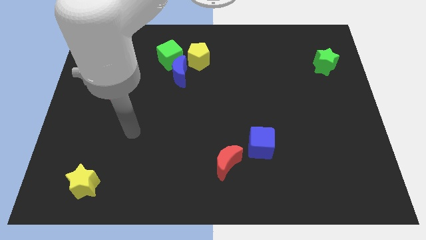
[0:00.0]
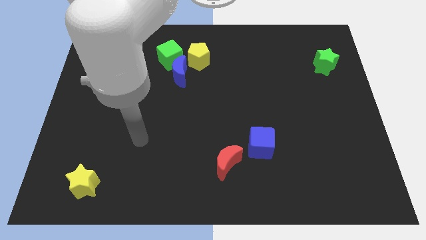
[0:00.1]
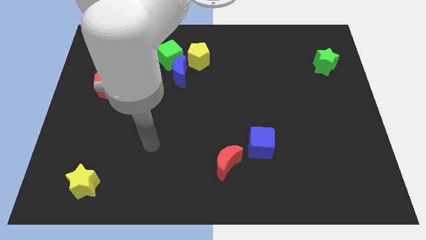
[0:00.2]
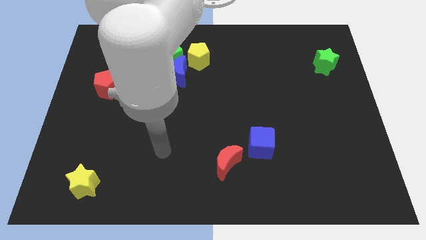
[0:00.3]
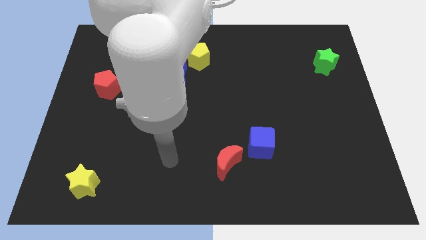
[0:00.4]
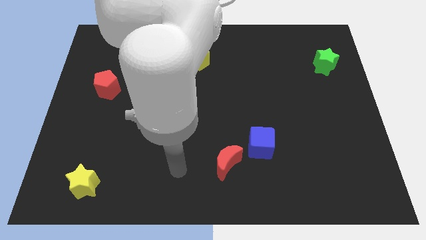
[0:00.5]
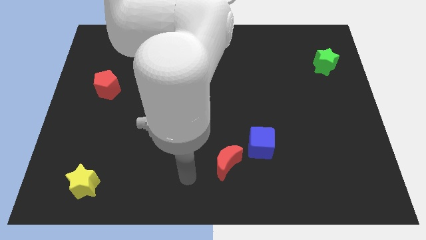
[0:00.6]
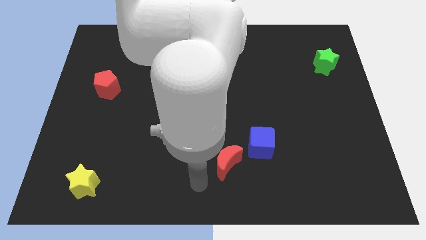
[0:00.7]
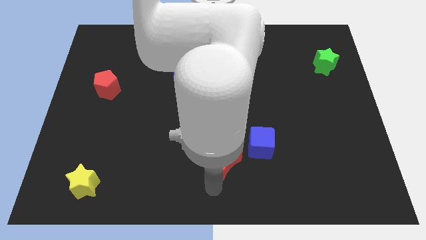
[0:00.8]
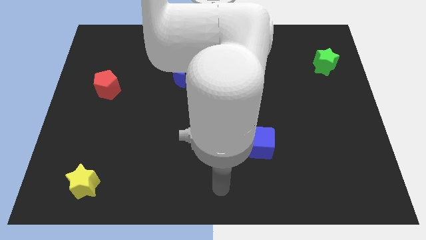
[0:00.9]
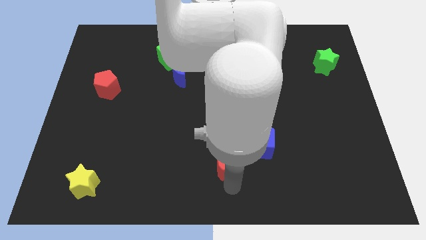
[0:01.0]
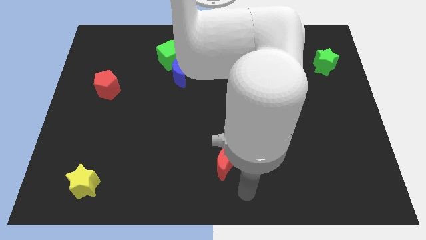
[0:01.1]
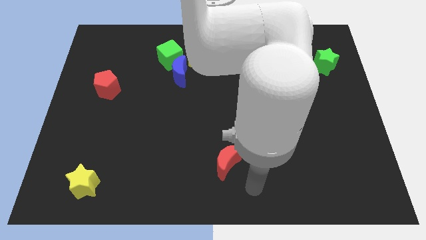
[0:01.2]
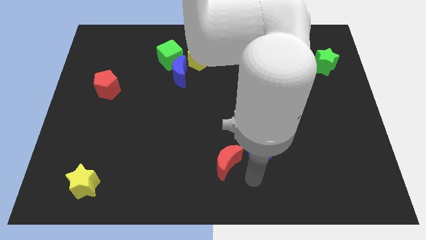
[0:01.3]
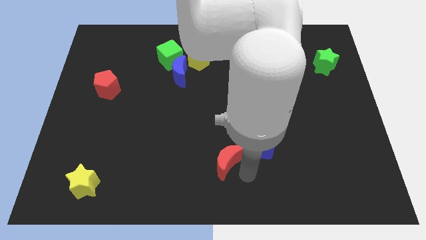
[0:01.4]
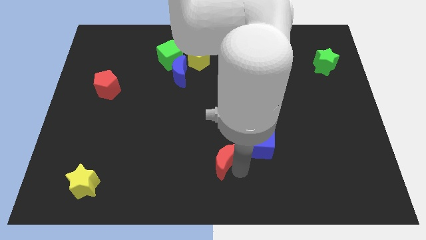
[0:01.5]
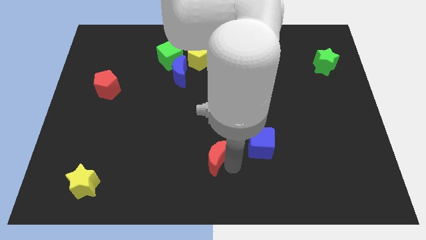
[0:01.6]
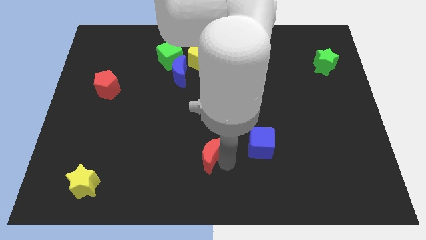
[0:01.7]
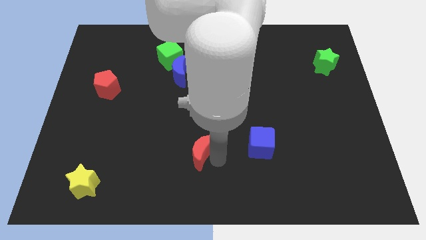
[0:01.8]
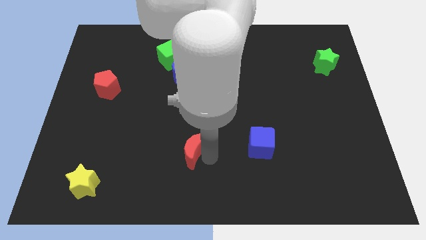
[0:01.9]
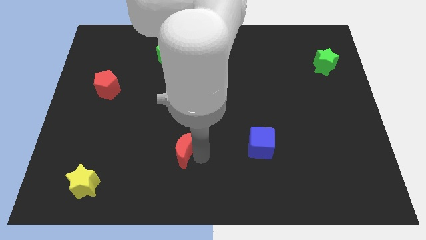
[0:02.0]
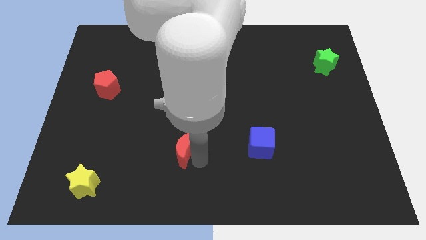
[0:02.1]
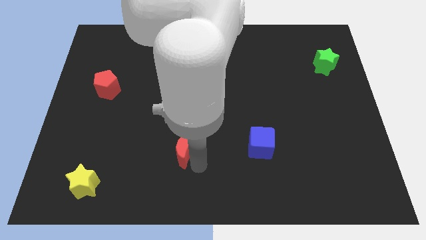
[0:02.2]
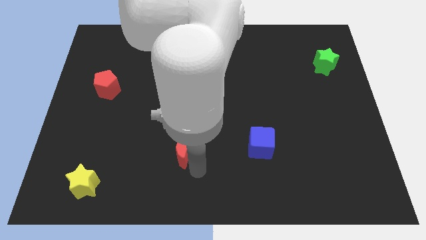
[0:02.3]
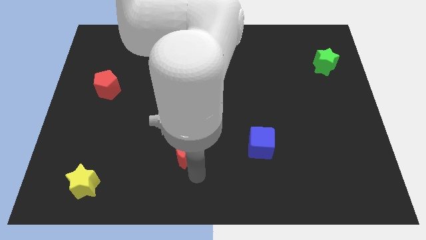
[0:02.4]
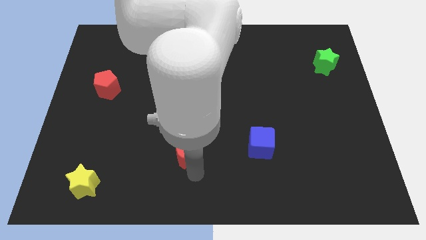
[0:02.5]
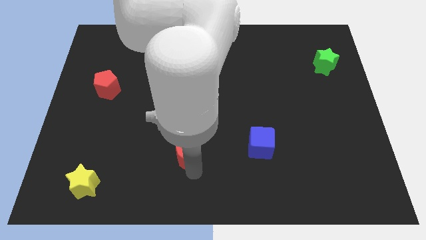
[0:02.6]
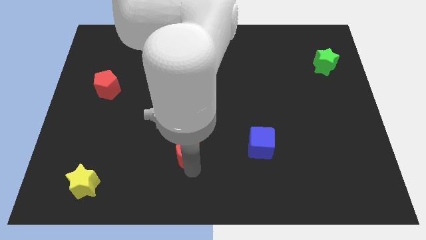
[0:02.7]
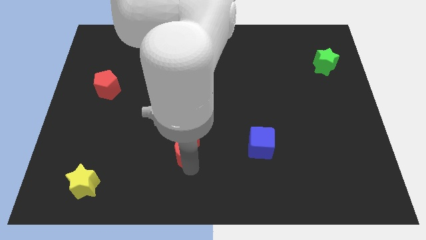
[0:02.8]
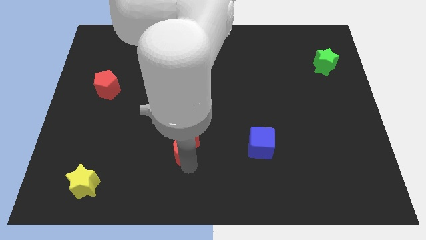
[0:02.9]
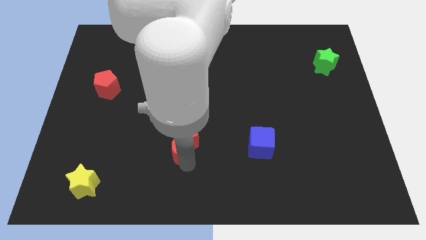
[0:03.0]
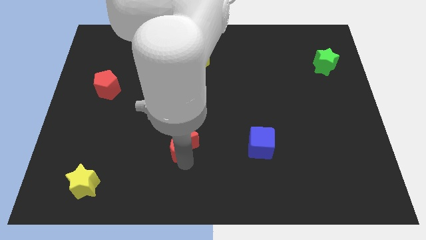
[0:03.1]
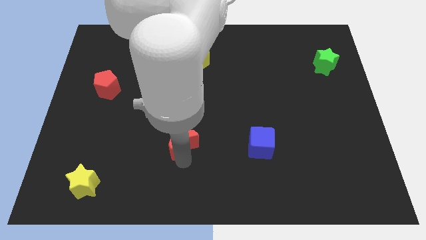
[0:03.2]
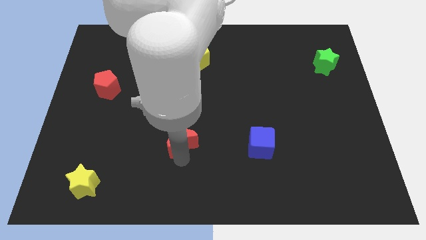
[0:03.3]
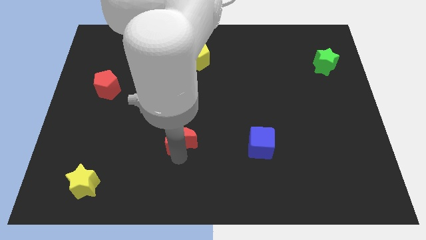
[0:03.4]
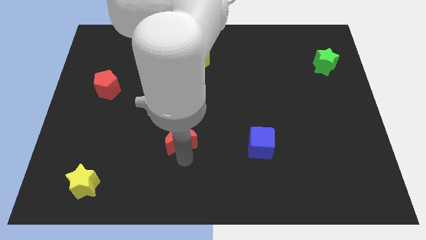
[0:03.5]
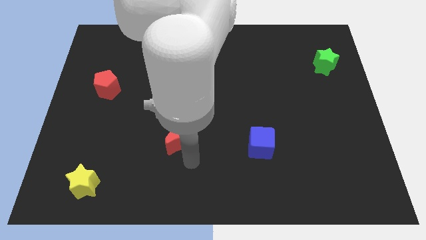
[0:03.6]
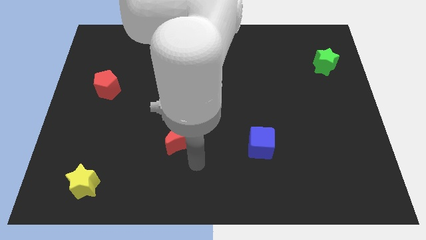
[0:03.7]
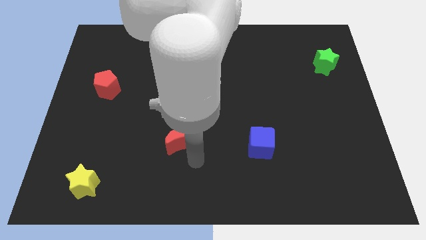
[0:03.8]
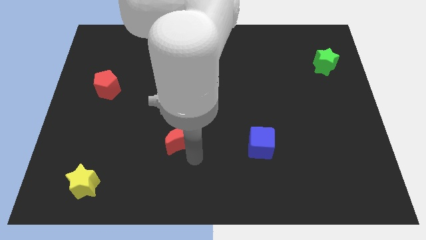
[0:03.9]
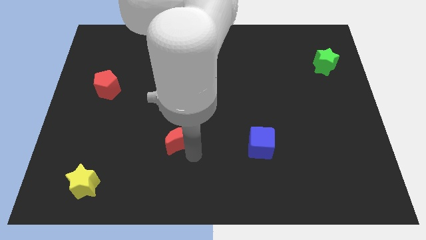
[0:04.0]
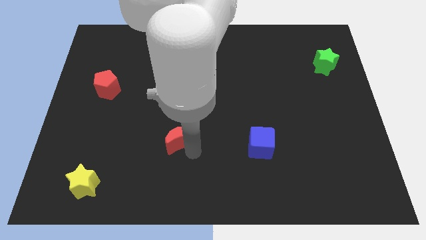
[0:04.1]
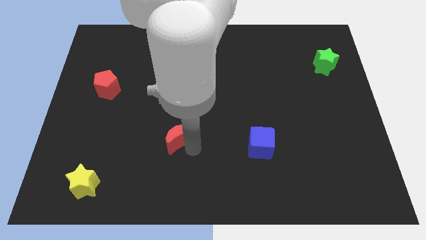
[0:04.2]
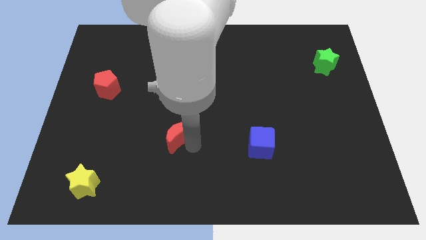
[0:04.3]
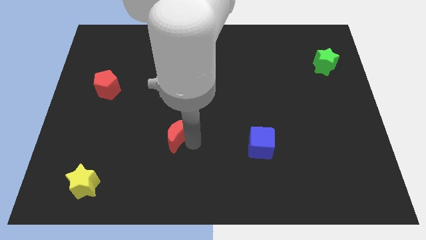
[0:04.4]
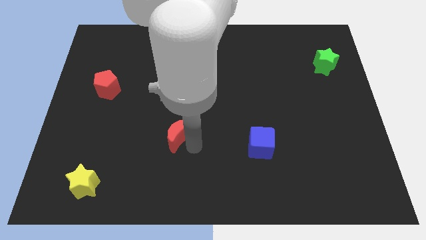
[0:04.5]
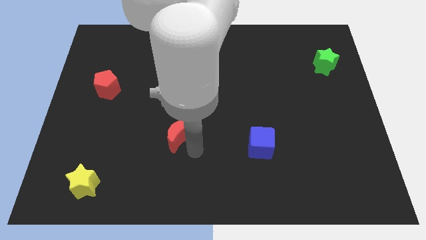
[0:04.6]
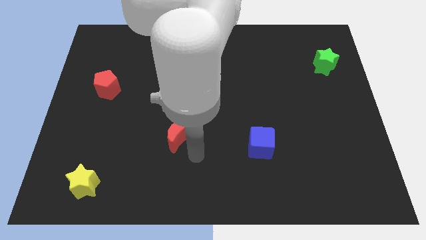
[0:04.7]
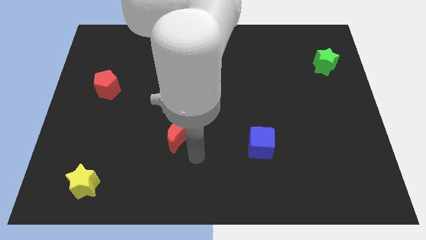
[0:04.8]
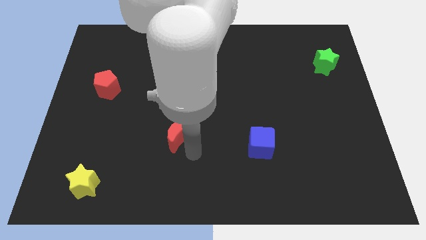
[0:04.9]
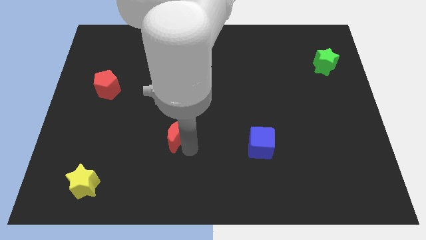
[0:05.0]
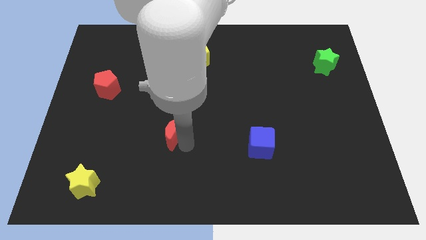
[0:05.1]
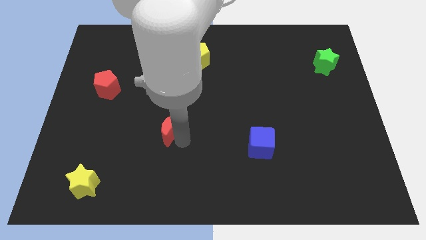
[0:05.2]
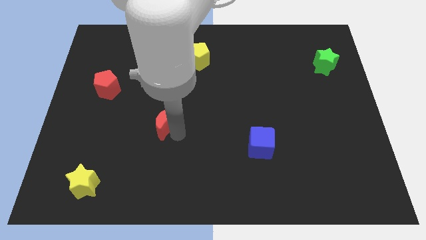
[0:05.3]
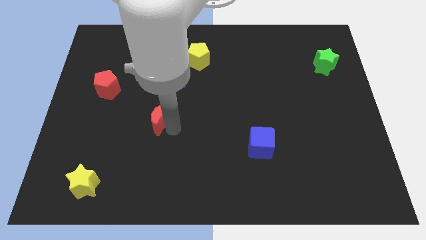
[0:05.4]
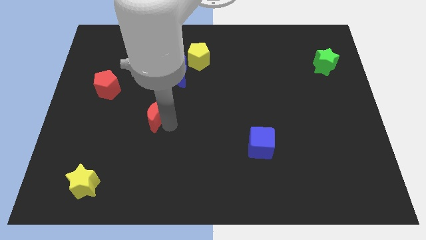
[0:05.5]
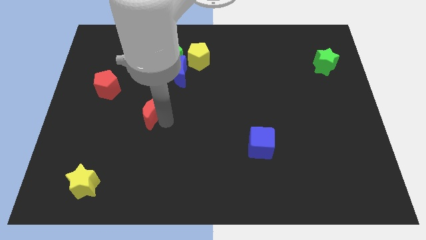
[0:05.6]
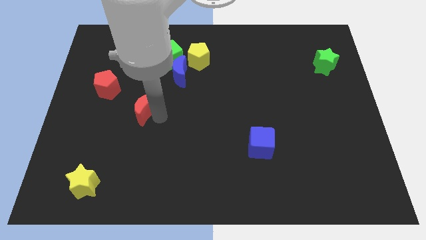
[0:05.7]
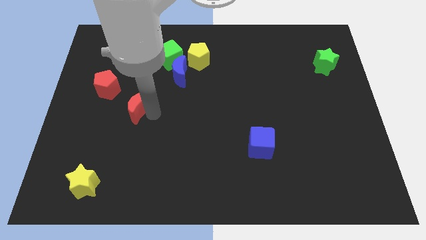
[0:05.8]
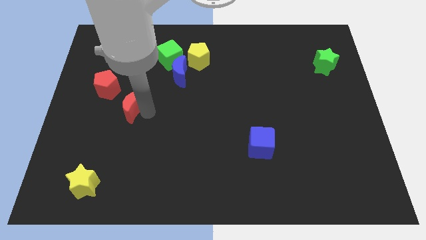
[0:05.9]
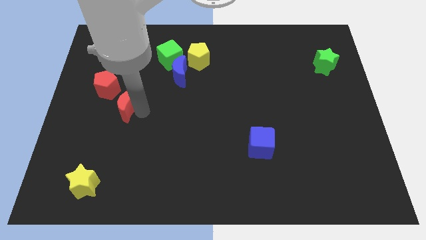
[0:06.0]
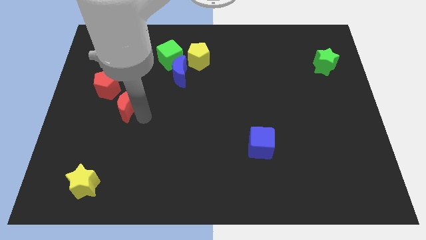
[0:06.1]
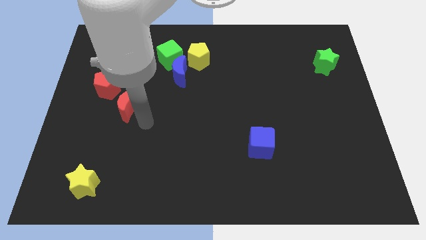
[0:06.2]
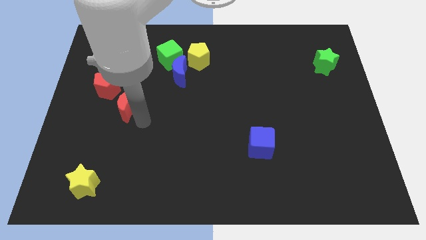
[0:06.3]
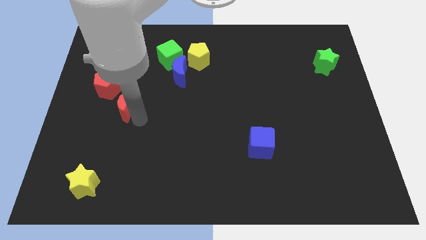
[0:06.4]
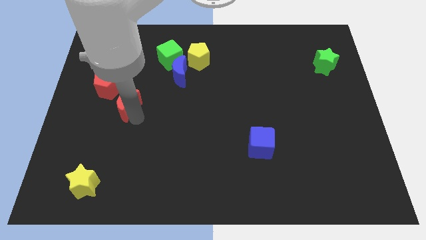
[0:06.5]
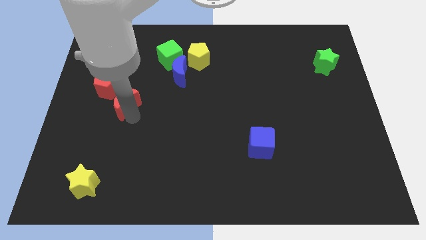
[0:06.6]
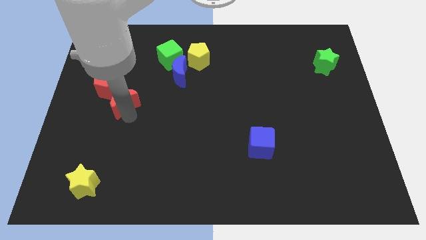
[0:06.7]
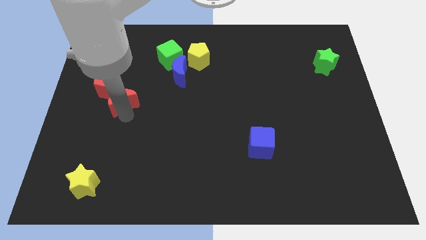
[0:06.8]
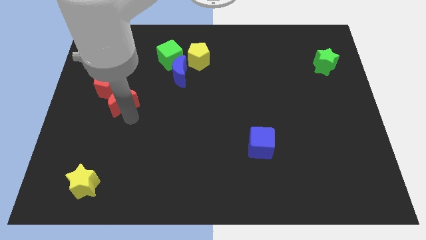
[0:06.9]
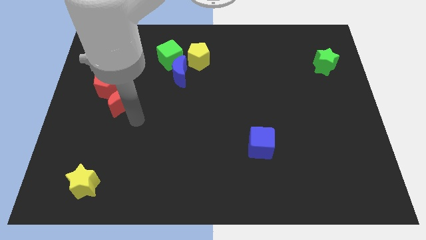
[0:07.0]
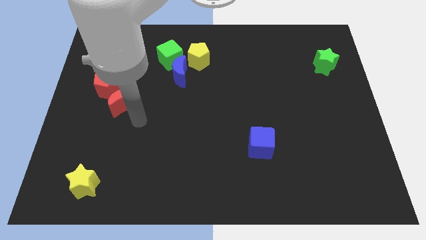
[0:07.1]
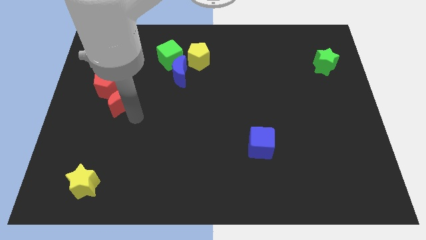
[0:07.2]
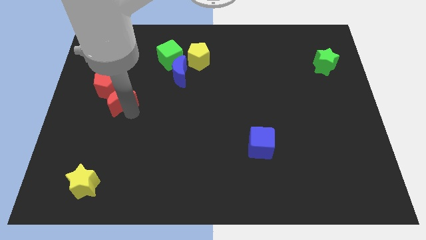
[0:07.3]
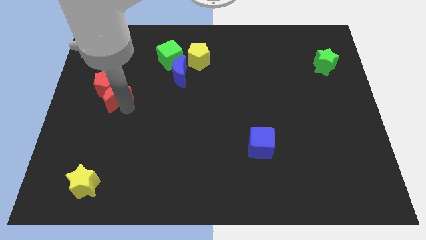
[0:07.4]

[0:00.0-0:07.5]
put the red moon next to the red pentagon
